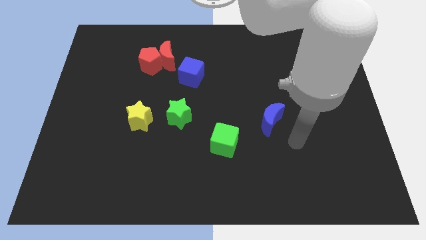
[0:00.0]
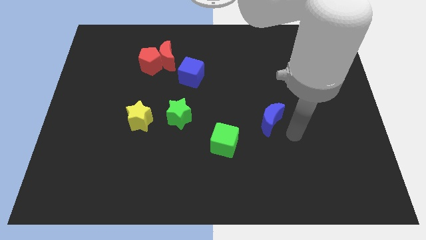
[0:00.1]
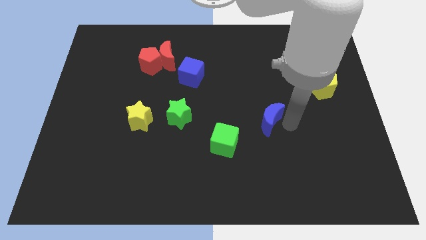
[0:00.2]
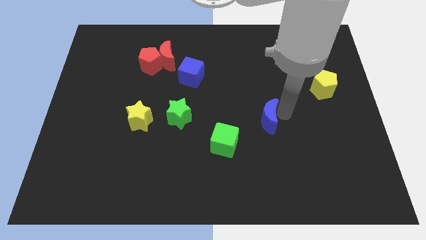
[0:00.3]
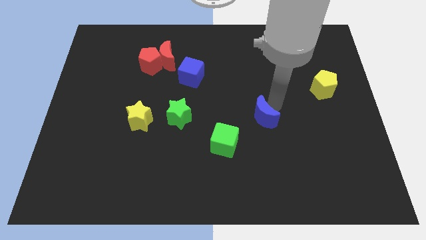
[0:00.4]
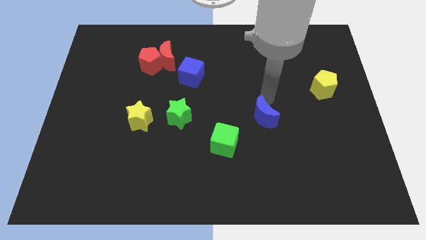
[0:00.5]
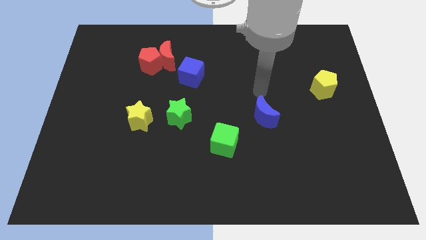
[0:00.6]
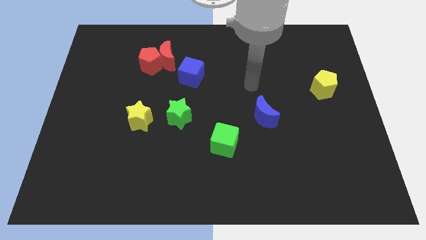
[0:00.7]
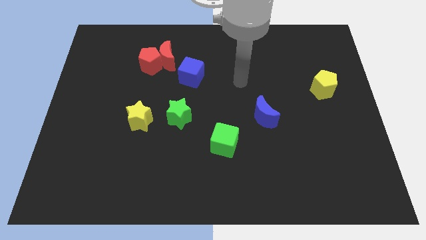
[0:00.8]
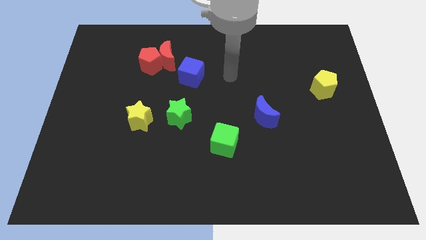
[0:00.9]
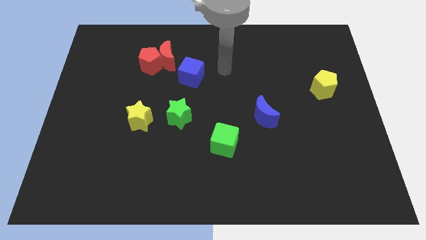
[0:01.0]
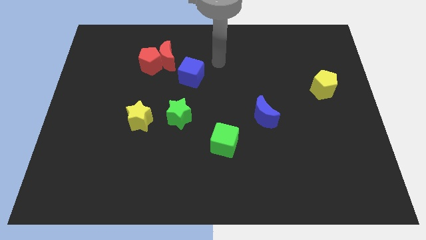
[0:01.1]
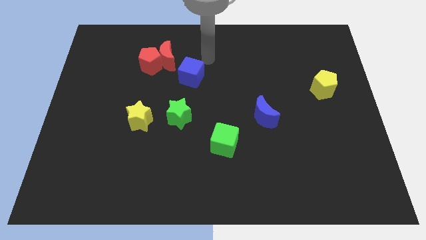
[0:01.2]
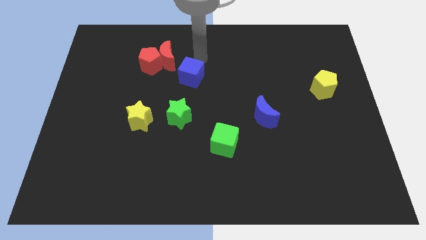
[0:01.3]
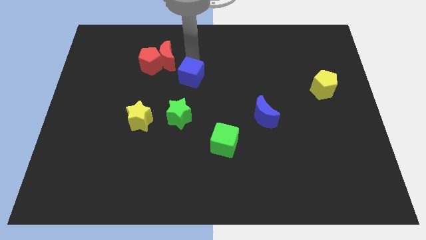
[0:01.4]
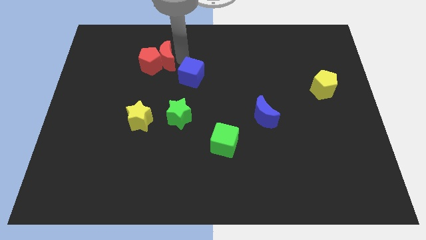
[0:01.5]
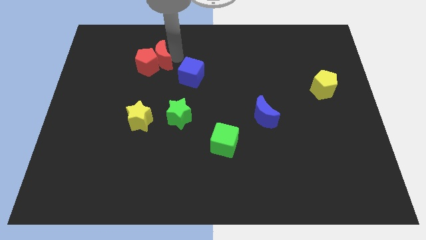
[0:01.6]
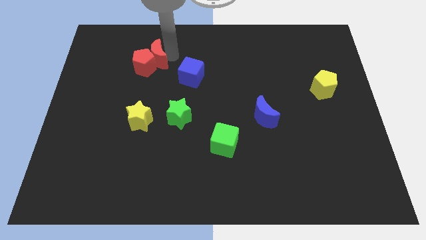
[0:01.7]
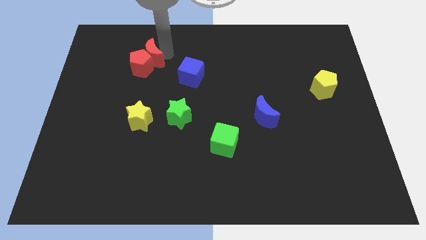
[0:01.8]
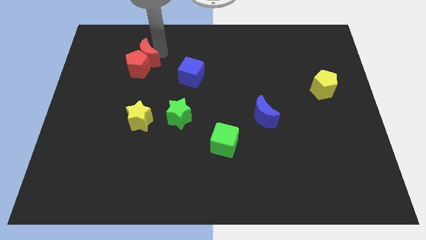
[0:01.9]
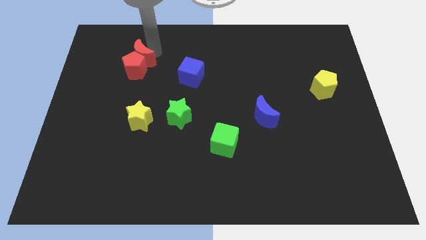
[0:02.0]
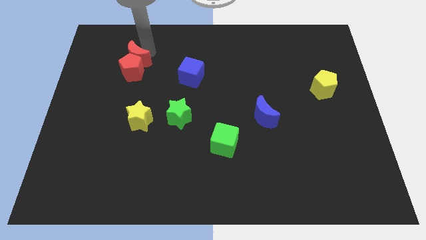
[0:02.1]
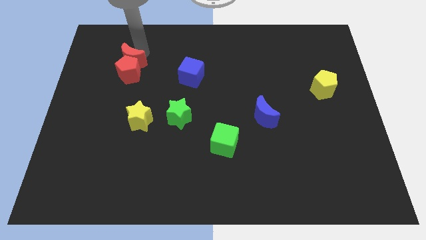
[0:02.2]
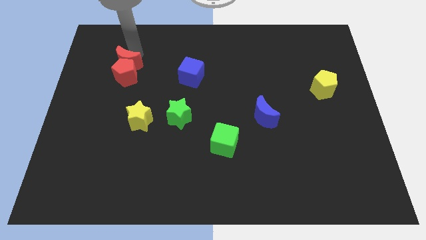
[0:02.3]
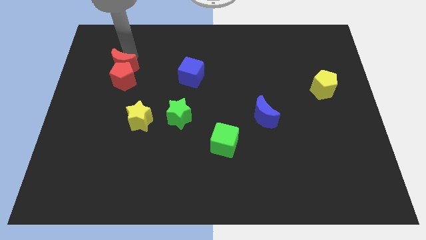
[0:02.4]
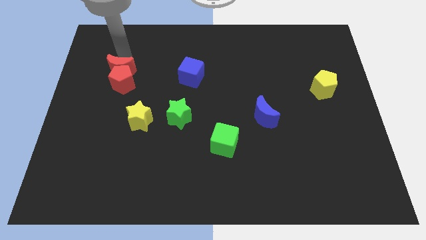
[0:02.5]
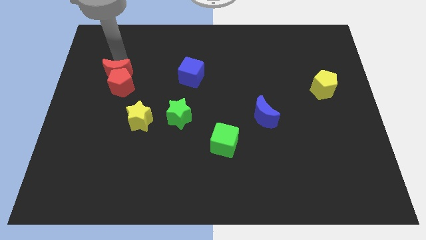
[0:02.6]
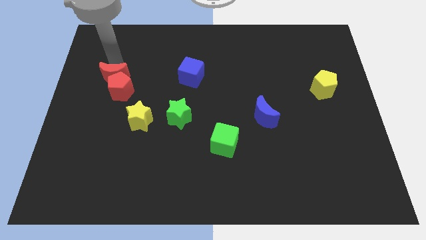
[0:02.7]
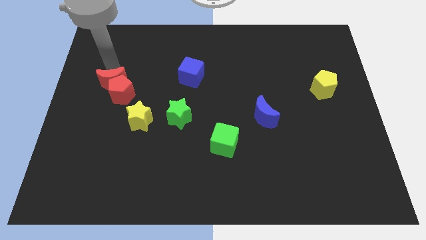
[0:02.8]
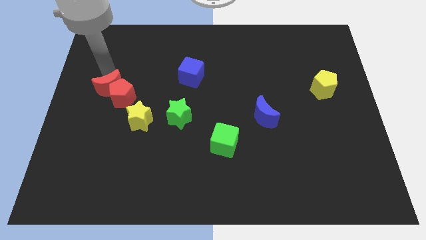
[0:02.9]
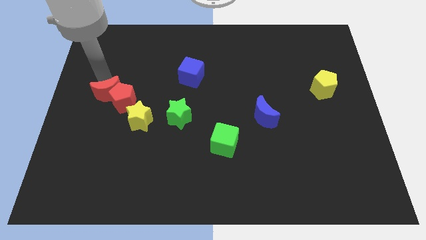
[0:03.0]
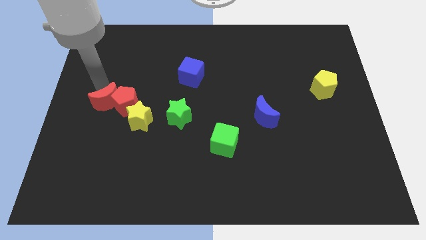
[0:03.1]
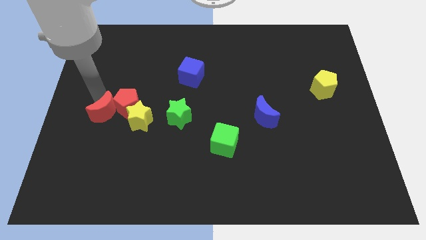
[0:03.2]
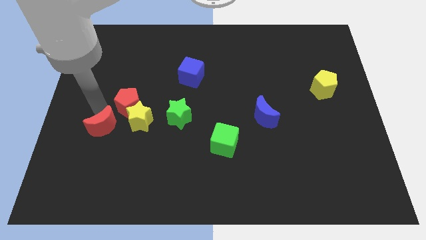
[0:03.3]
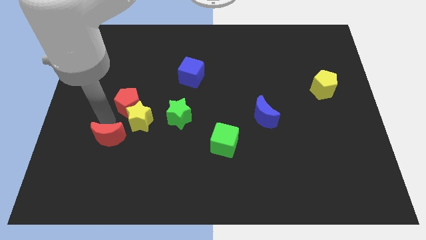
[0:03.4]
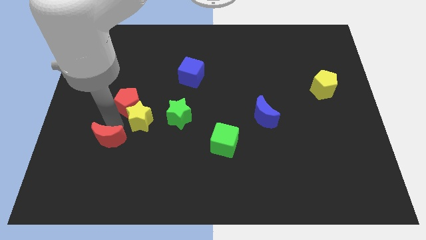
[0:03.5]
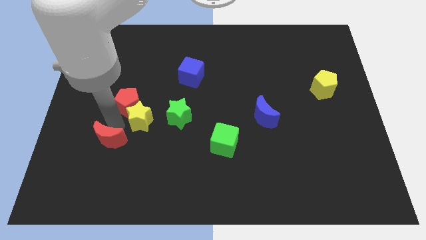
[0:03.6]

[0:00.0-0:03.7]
separate the red pentagon from the red moon

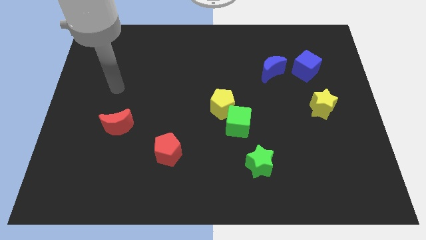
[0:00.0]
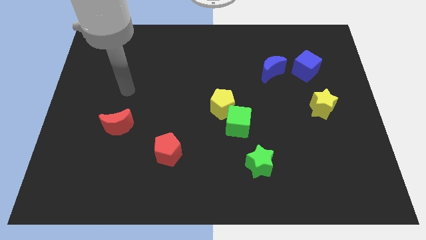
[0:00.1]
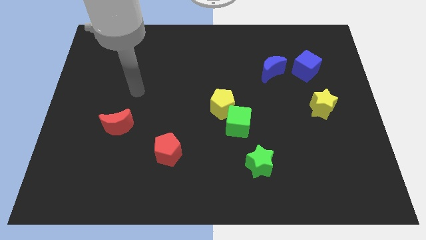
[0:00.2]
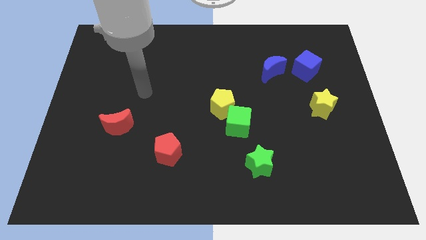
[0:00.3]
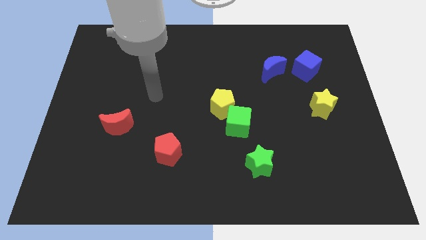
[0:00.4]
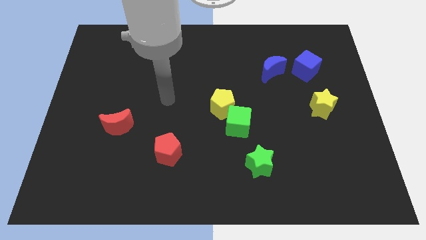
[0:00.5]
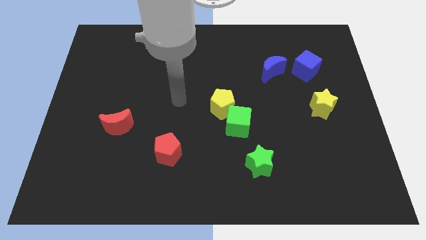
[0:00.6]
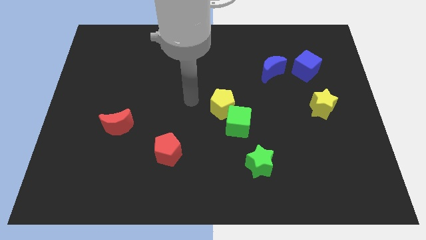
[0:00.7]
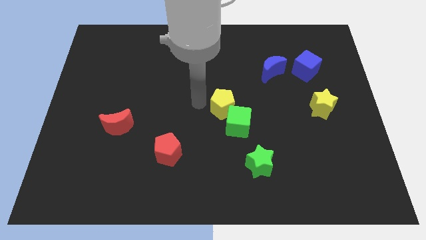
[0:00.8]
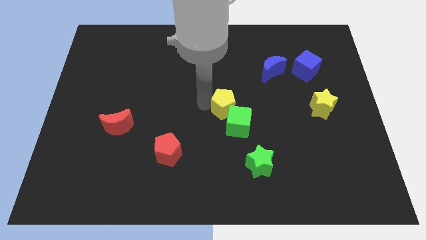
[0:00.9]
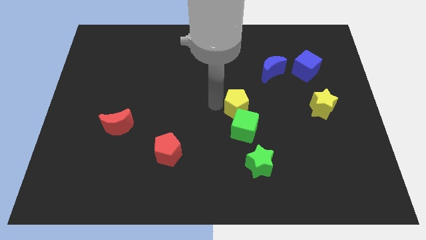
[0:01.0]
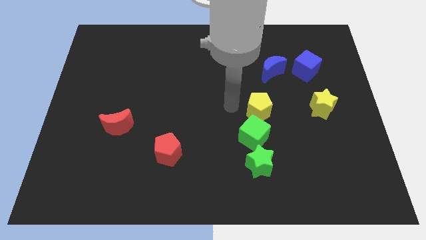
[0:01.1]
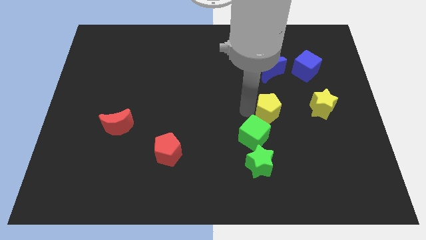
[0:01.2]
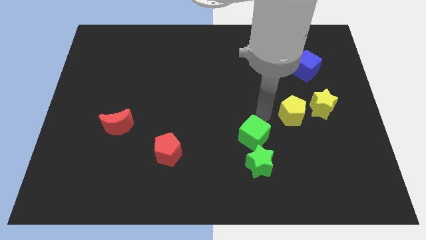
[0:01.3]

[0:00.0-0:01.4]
separate the green cube from the yellow pentagon

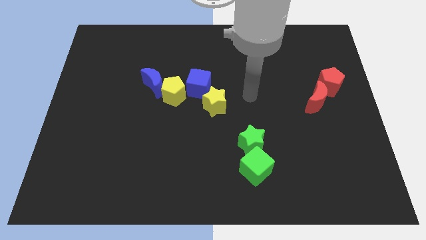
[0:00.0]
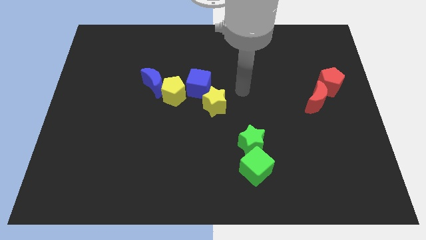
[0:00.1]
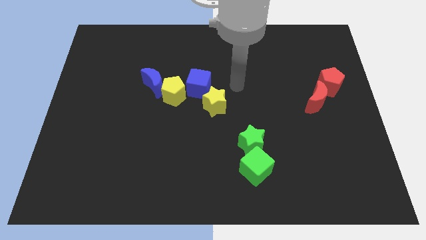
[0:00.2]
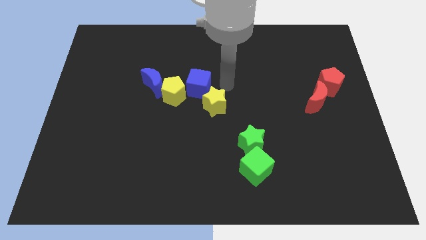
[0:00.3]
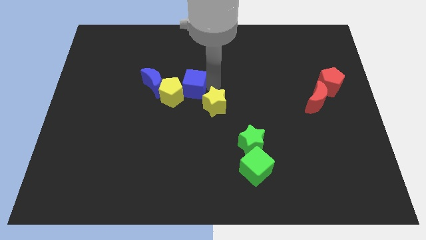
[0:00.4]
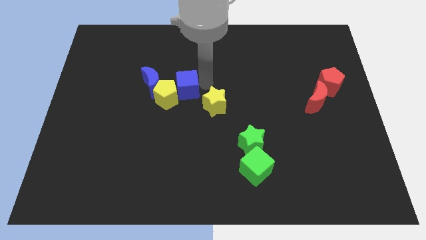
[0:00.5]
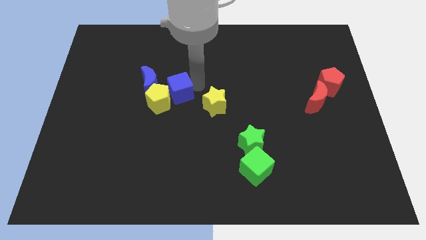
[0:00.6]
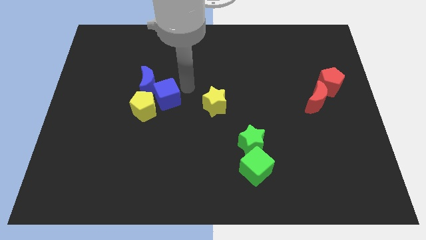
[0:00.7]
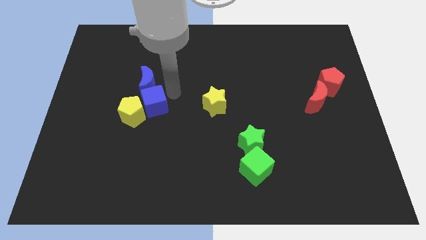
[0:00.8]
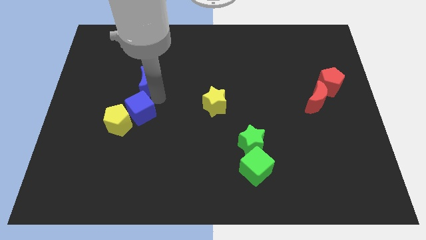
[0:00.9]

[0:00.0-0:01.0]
move the blue moon away from the yellow pentagon

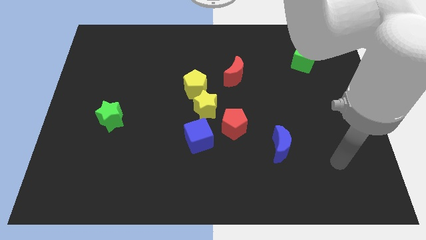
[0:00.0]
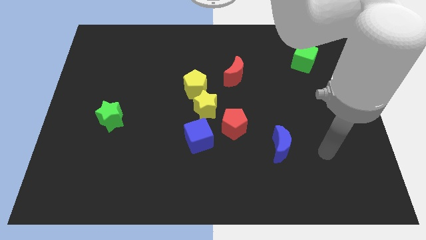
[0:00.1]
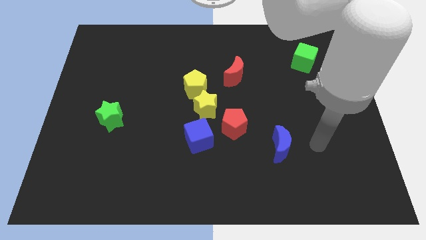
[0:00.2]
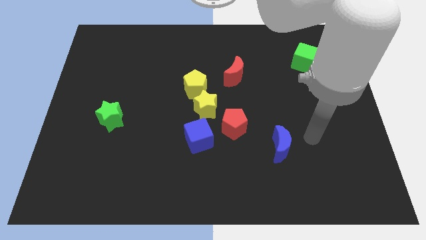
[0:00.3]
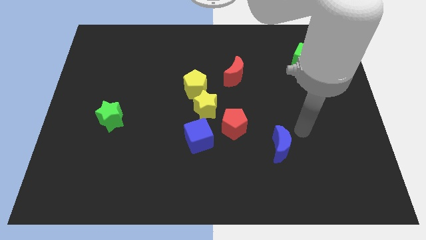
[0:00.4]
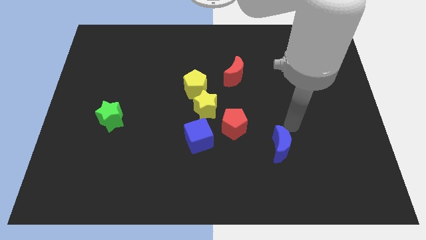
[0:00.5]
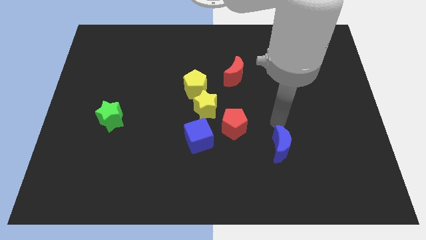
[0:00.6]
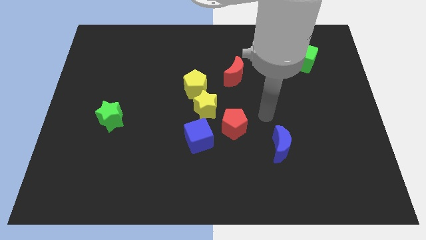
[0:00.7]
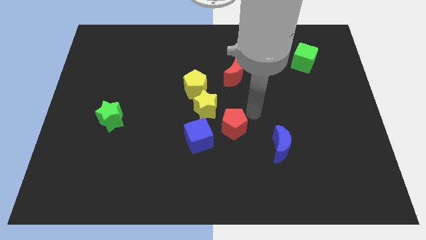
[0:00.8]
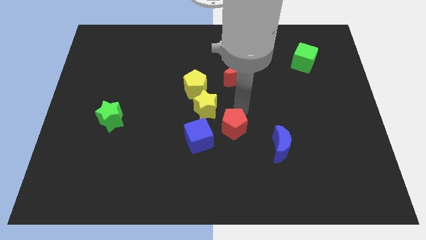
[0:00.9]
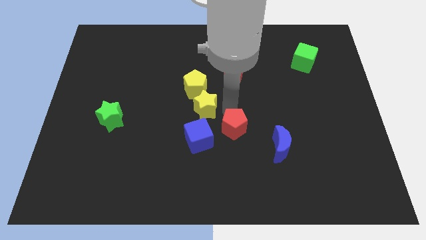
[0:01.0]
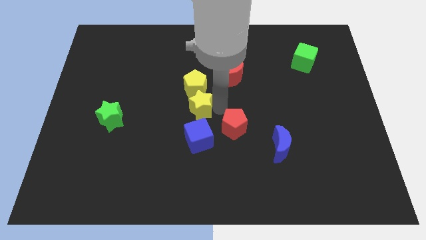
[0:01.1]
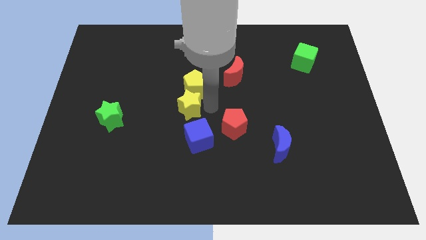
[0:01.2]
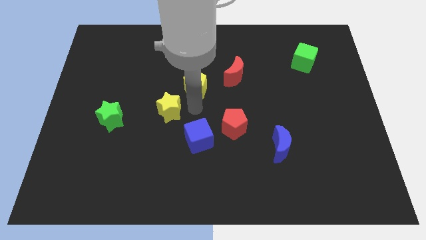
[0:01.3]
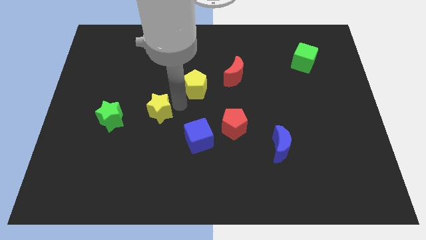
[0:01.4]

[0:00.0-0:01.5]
move the yellow pentagon away from the yellow star

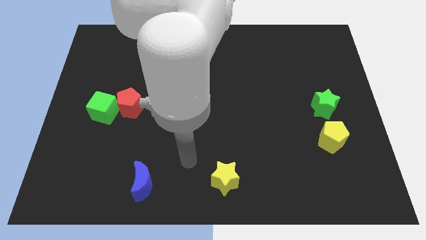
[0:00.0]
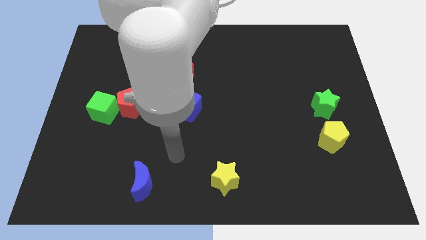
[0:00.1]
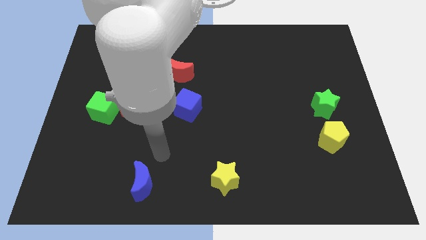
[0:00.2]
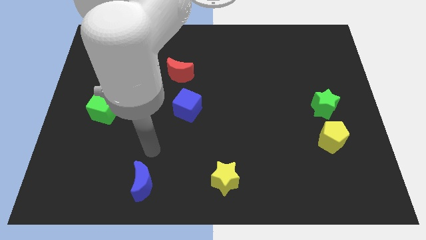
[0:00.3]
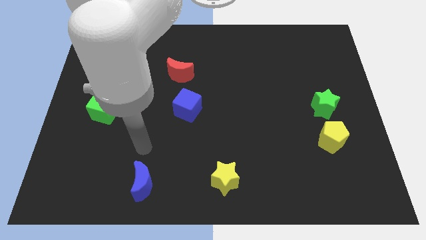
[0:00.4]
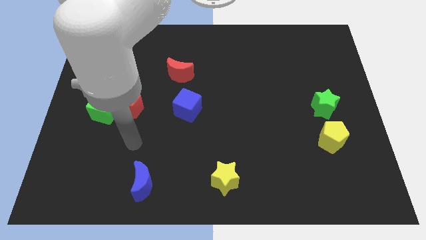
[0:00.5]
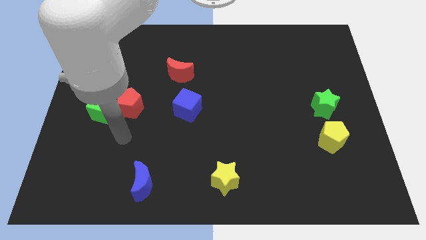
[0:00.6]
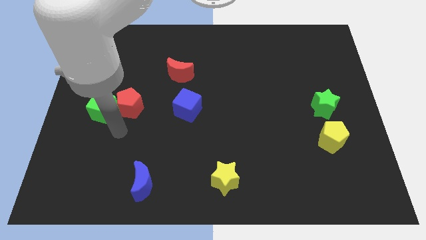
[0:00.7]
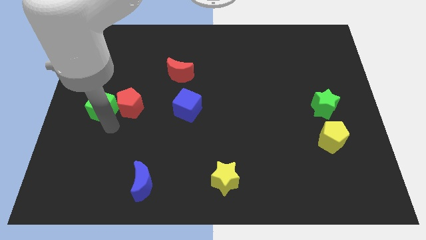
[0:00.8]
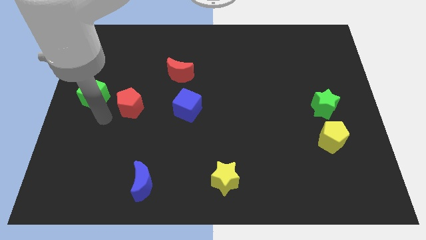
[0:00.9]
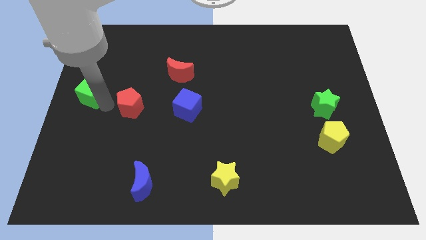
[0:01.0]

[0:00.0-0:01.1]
pull the red pentagon apart from the green cube

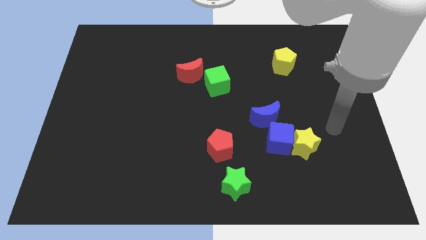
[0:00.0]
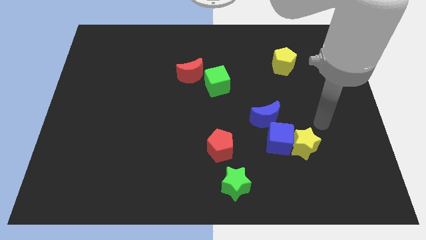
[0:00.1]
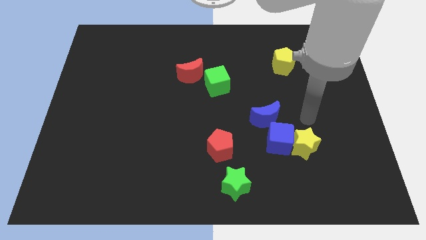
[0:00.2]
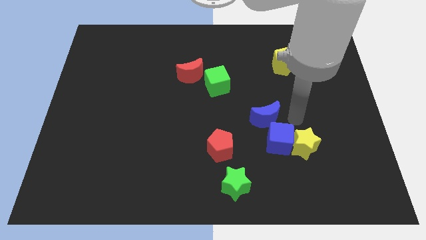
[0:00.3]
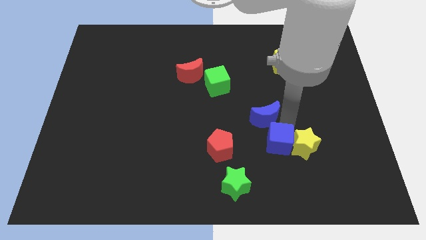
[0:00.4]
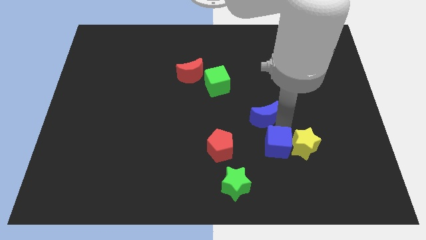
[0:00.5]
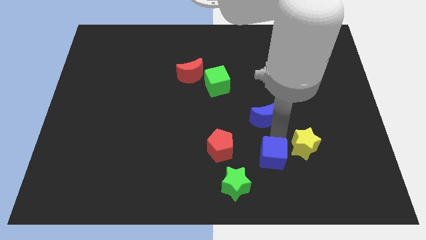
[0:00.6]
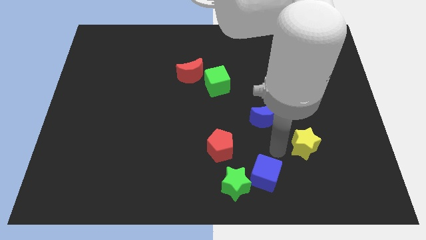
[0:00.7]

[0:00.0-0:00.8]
pull the yellow star apart from the blue cube
